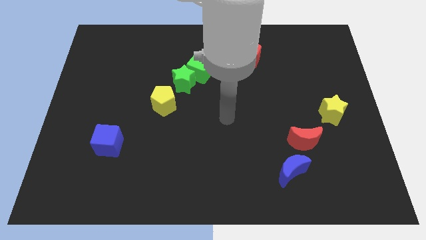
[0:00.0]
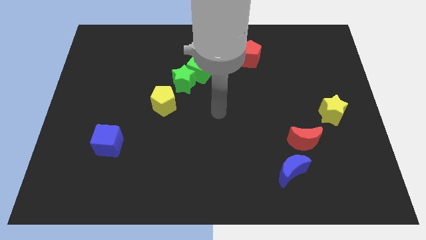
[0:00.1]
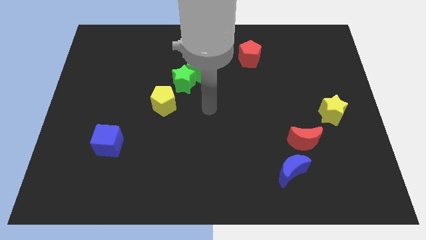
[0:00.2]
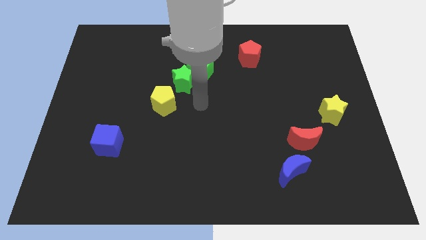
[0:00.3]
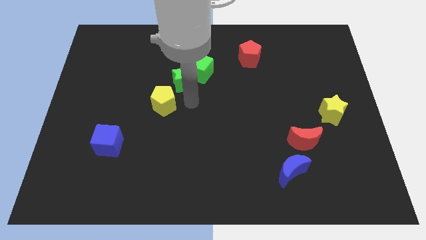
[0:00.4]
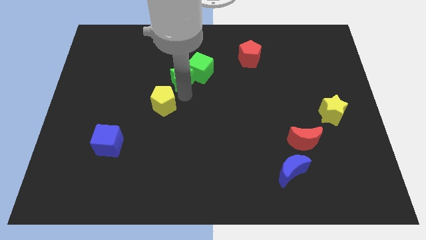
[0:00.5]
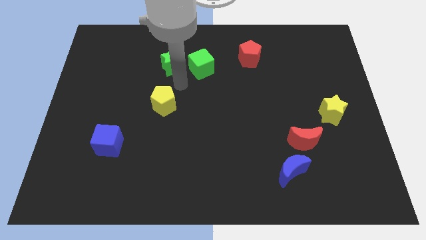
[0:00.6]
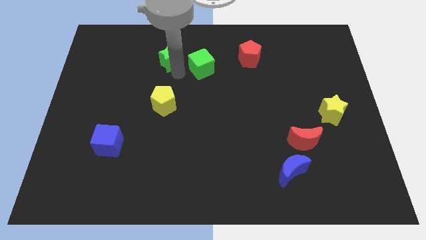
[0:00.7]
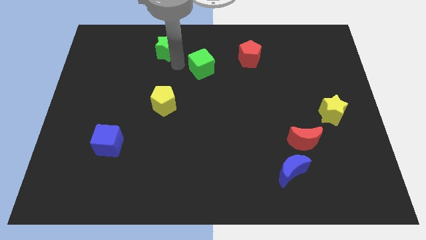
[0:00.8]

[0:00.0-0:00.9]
pull the green cube apart from the green star

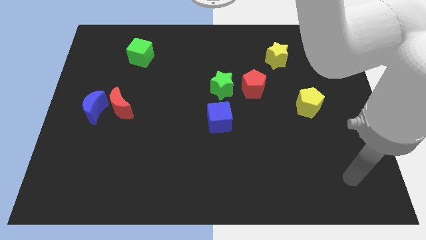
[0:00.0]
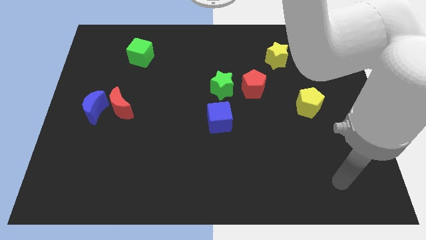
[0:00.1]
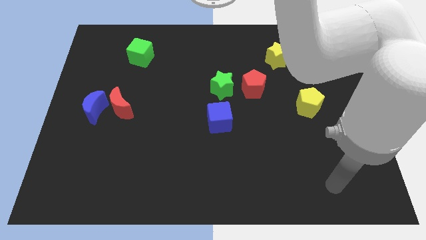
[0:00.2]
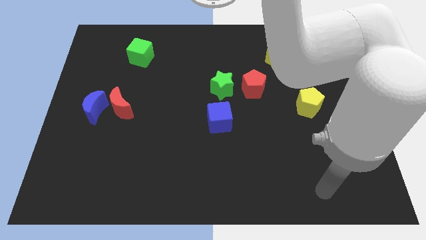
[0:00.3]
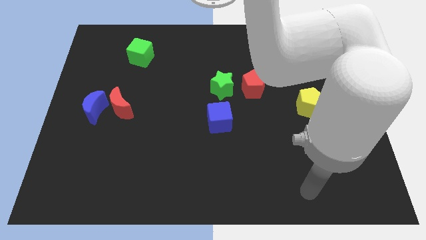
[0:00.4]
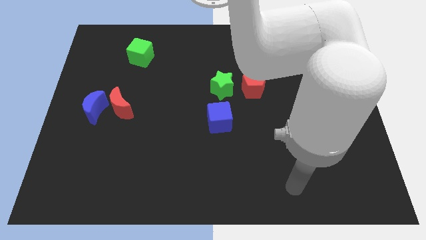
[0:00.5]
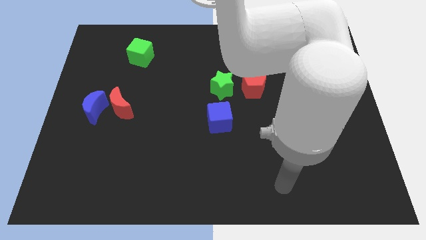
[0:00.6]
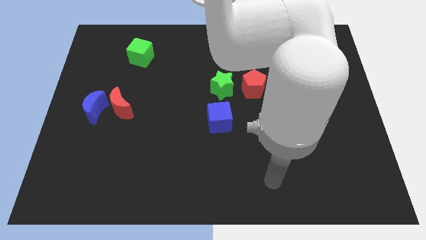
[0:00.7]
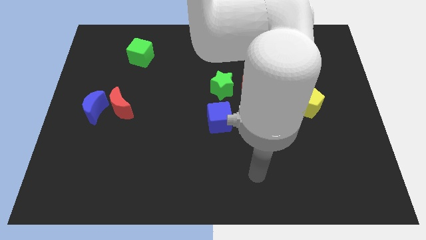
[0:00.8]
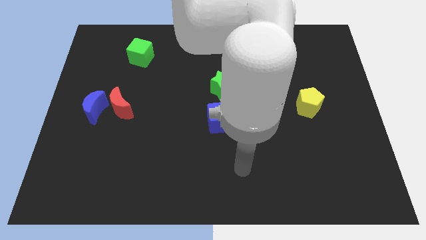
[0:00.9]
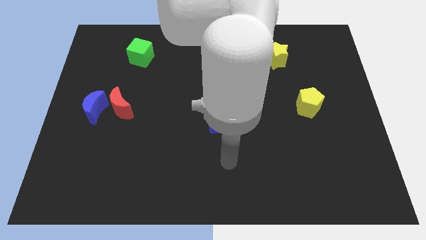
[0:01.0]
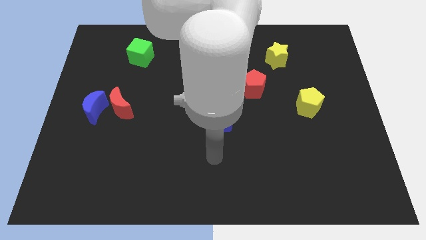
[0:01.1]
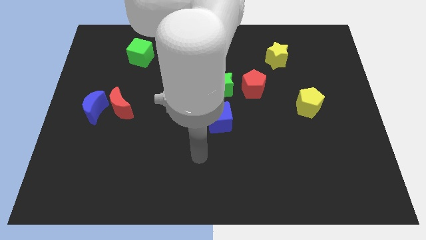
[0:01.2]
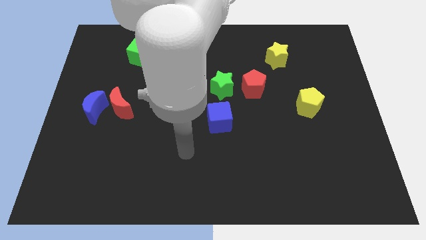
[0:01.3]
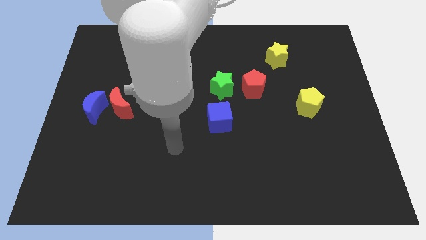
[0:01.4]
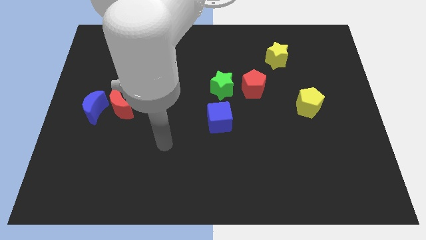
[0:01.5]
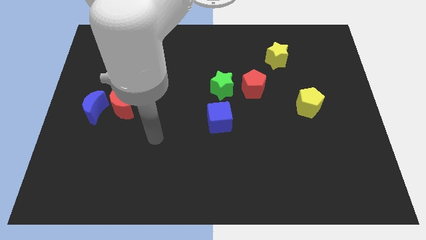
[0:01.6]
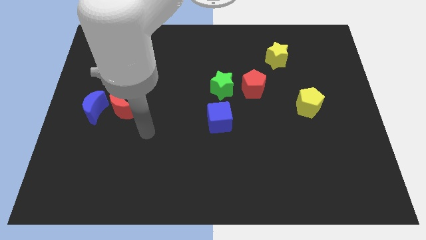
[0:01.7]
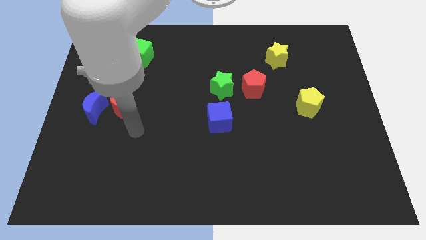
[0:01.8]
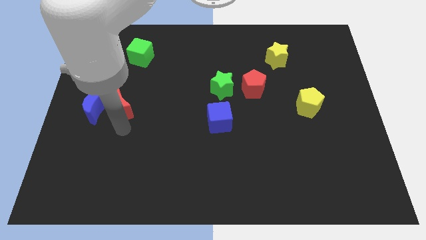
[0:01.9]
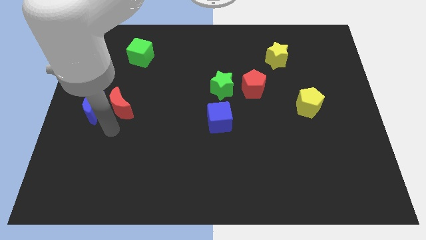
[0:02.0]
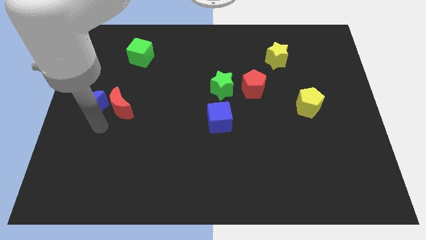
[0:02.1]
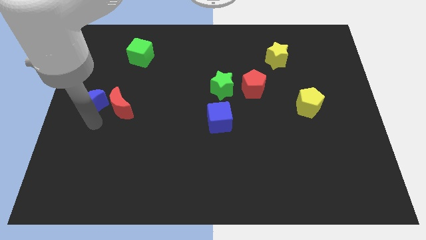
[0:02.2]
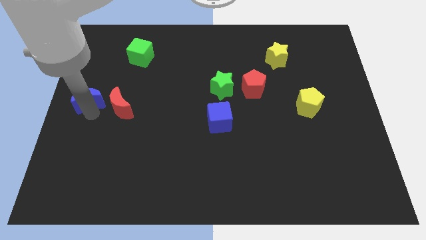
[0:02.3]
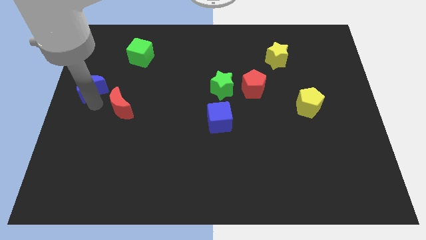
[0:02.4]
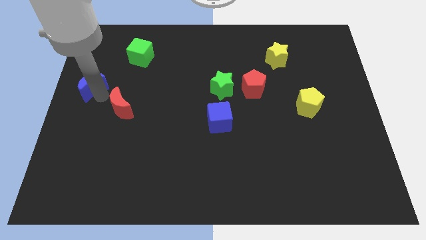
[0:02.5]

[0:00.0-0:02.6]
pull the red moon apart from the blue moon

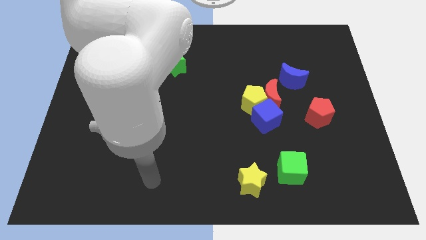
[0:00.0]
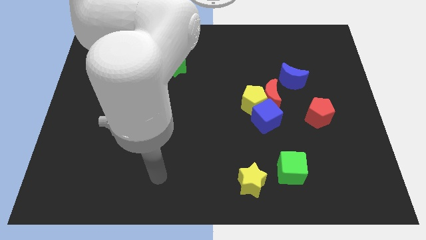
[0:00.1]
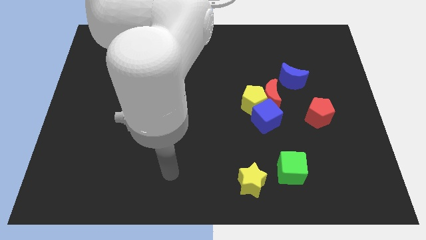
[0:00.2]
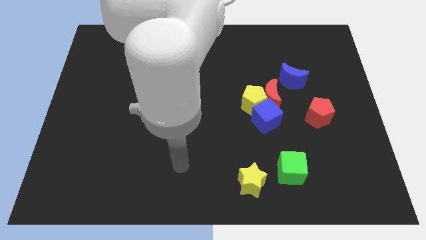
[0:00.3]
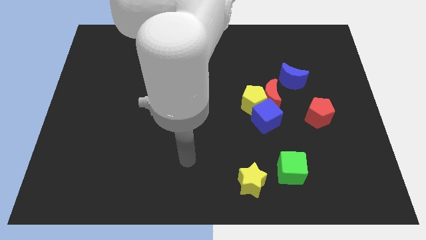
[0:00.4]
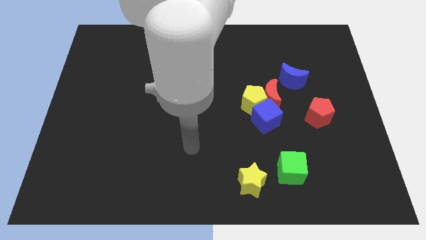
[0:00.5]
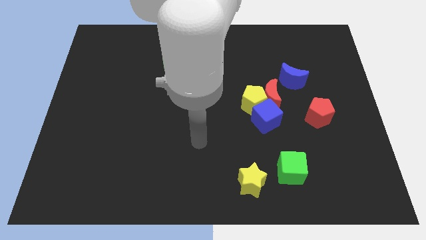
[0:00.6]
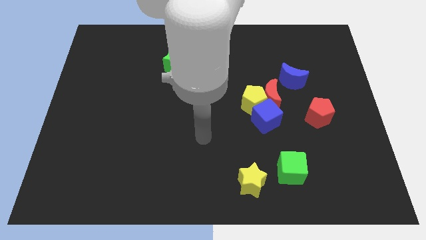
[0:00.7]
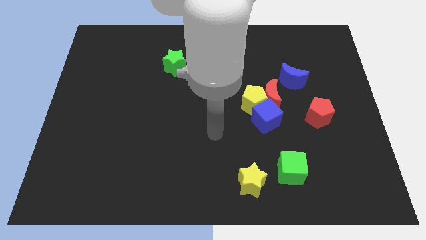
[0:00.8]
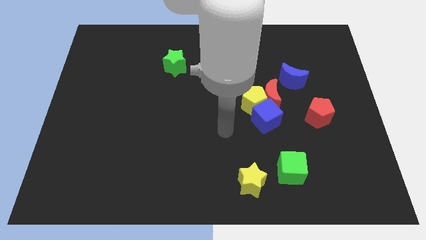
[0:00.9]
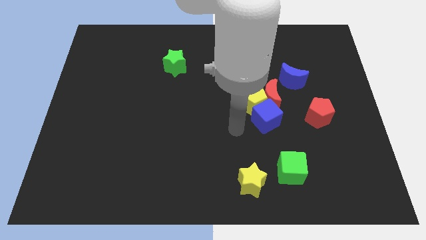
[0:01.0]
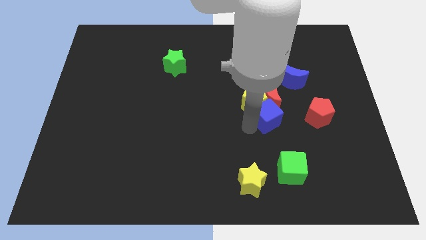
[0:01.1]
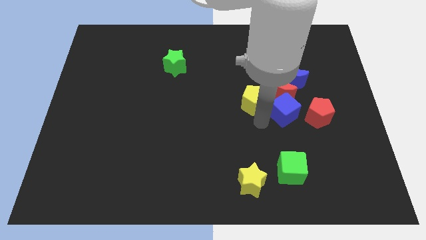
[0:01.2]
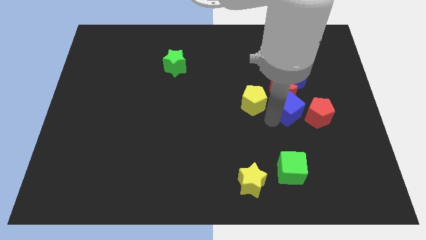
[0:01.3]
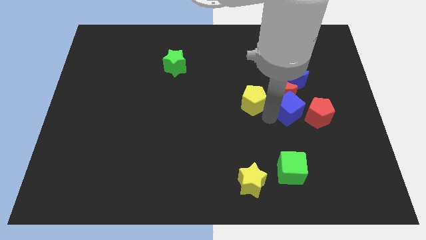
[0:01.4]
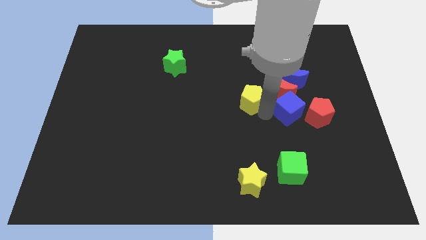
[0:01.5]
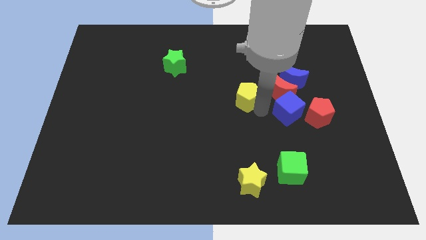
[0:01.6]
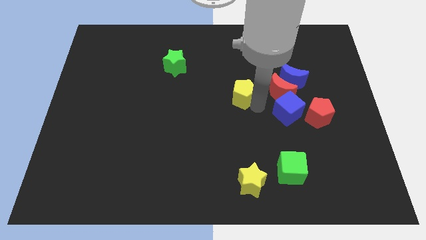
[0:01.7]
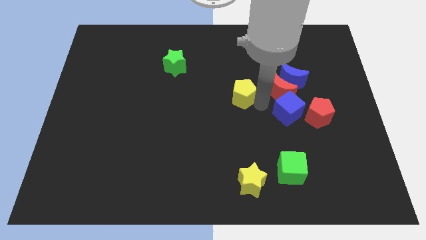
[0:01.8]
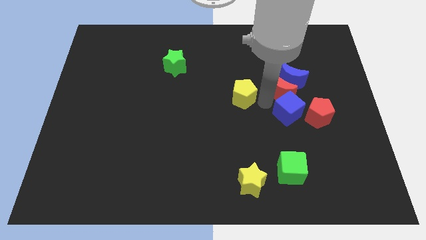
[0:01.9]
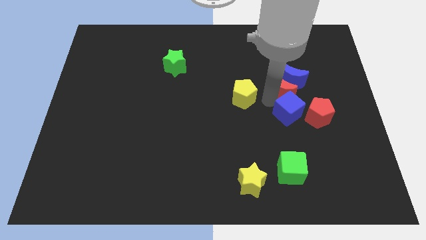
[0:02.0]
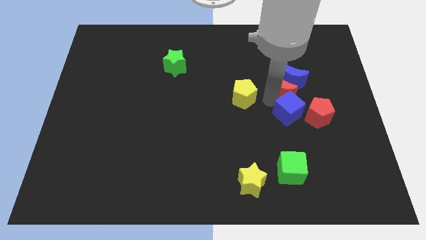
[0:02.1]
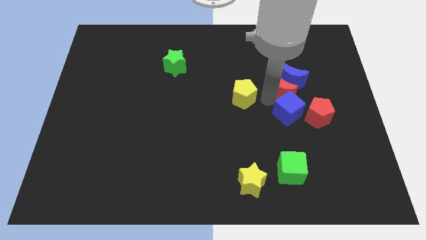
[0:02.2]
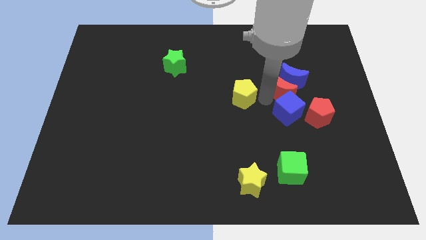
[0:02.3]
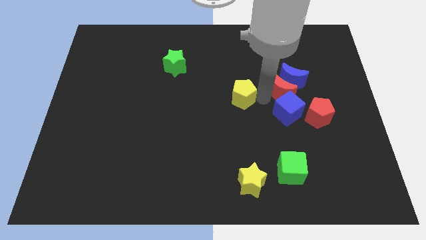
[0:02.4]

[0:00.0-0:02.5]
move the yellow pentagon away from the red moon and blue cube

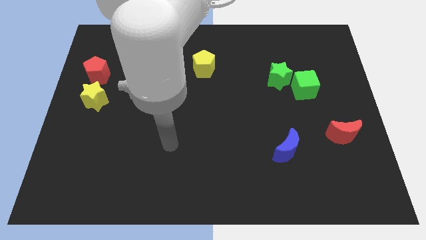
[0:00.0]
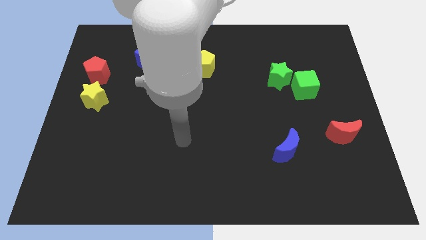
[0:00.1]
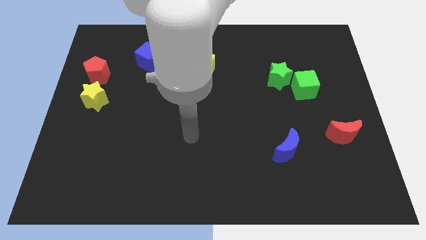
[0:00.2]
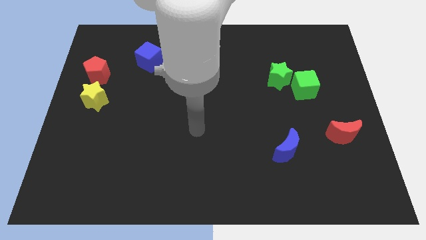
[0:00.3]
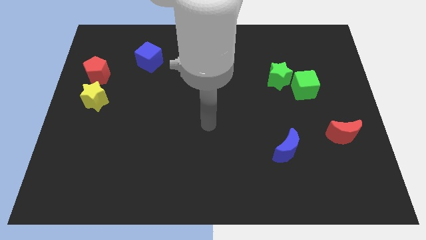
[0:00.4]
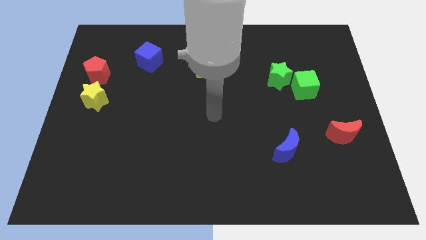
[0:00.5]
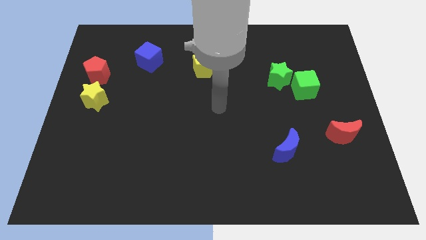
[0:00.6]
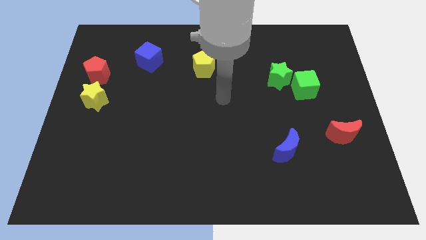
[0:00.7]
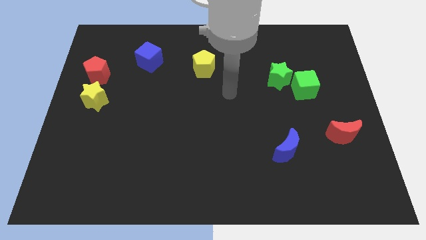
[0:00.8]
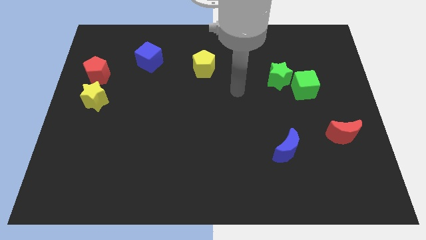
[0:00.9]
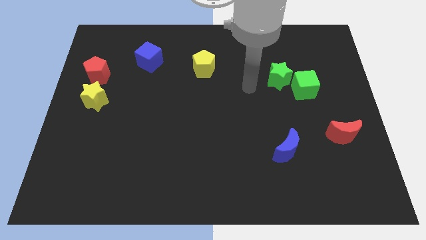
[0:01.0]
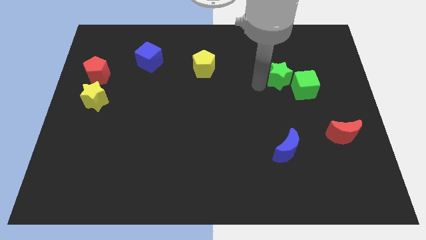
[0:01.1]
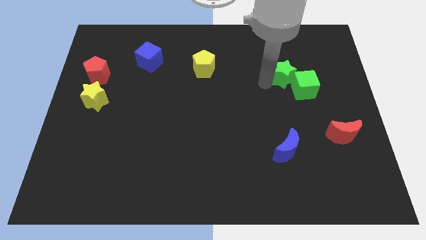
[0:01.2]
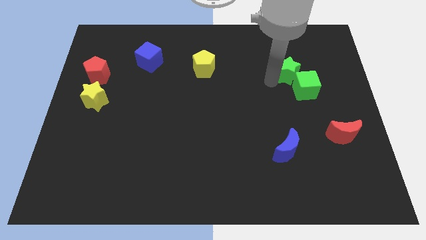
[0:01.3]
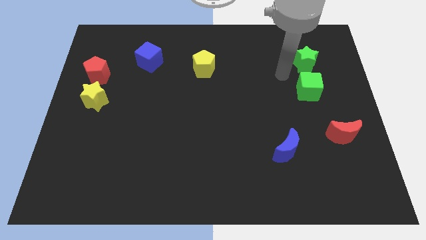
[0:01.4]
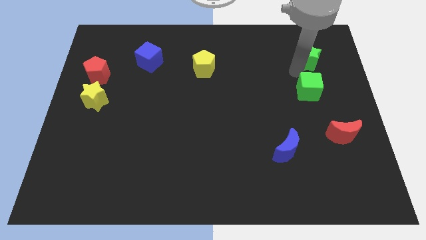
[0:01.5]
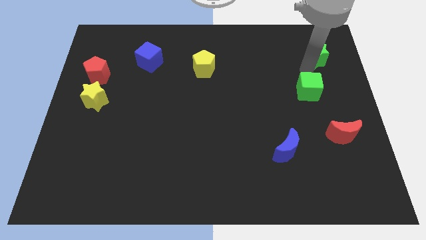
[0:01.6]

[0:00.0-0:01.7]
separate the green cube from the green star

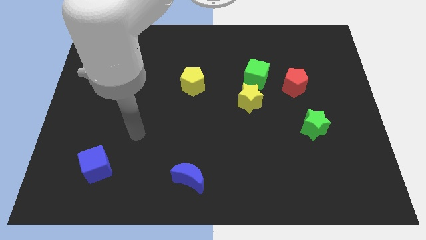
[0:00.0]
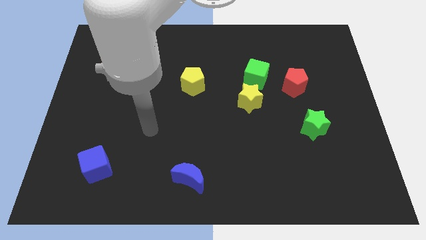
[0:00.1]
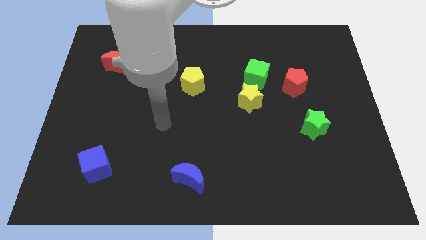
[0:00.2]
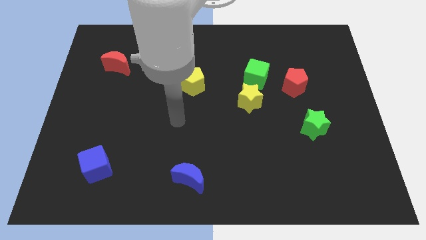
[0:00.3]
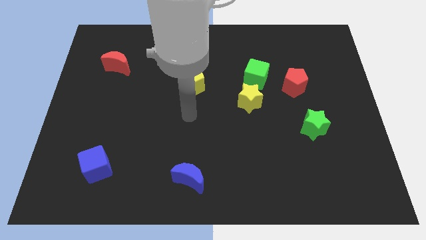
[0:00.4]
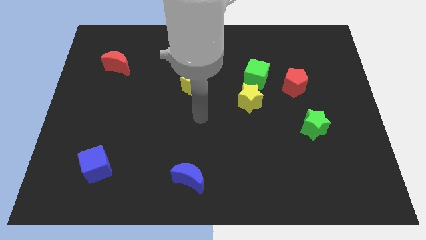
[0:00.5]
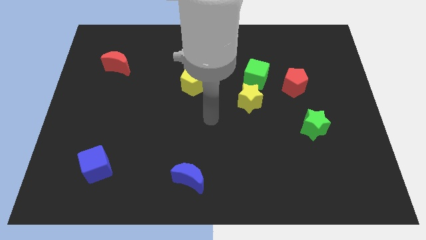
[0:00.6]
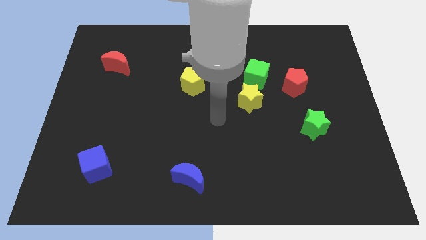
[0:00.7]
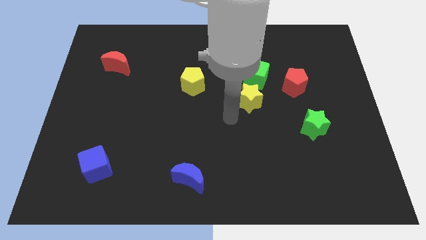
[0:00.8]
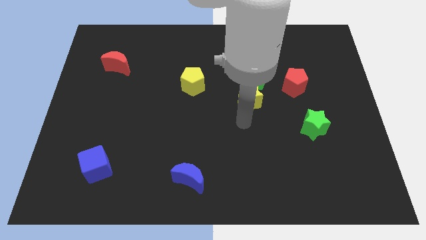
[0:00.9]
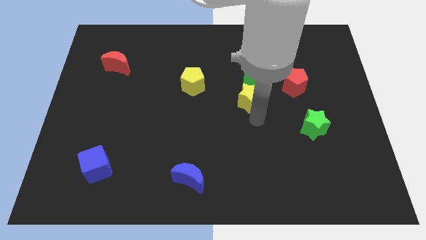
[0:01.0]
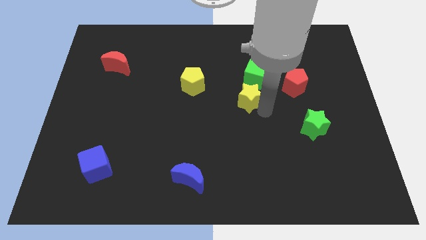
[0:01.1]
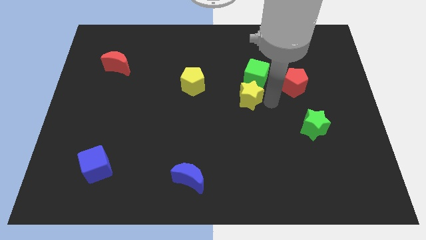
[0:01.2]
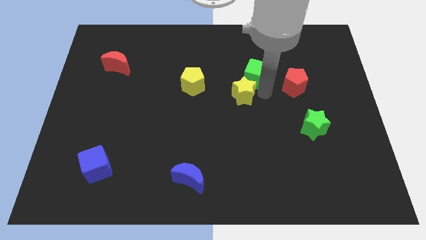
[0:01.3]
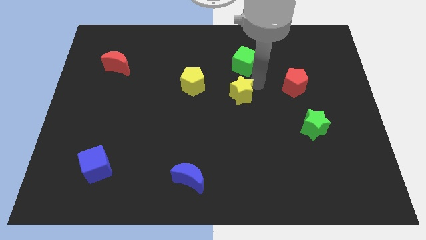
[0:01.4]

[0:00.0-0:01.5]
move the yellow star away from the green cube

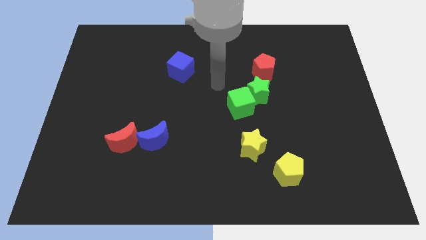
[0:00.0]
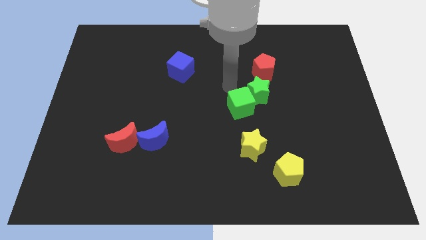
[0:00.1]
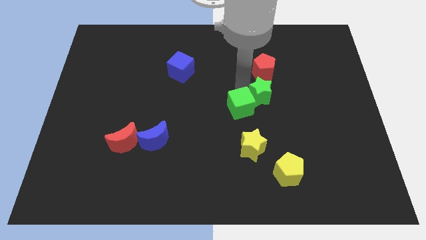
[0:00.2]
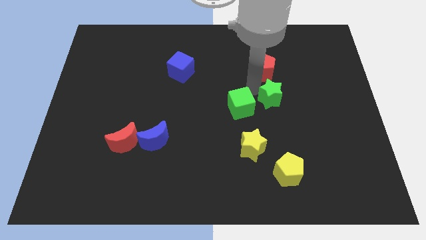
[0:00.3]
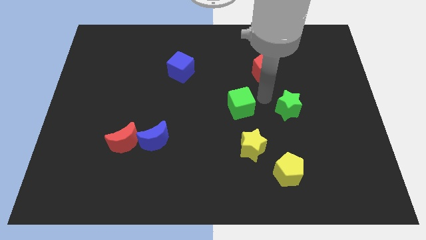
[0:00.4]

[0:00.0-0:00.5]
move the green cube away from the green star
